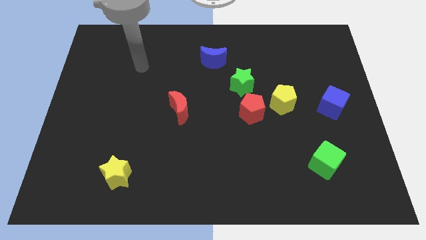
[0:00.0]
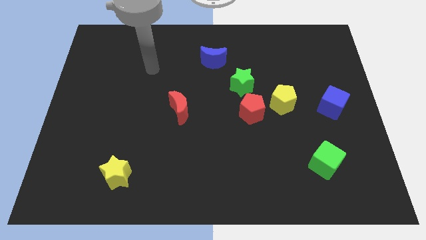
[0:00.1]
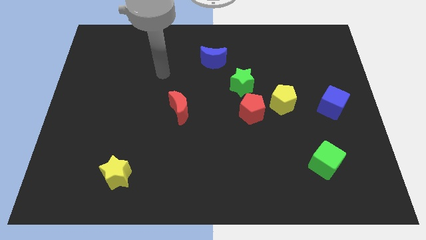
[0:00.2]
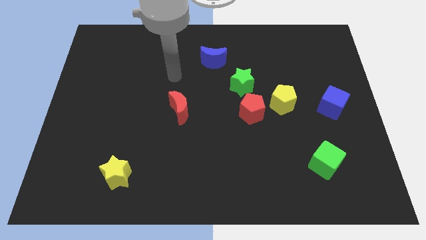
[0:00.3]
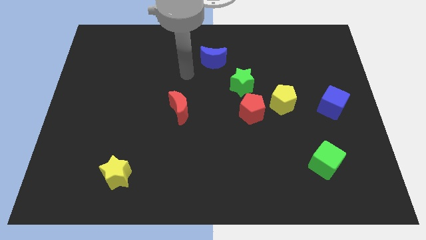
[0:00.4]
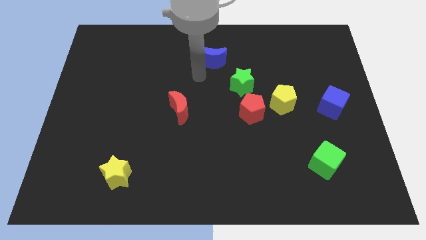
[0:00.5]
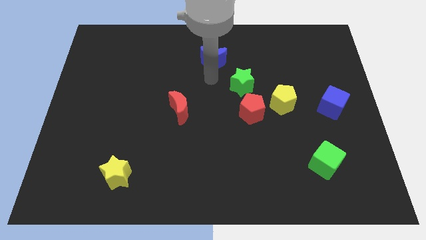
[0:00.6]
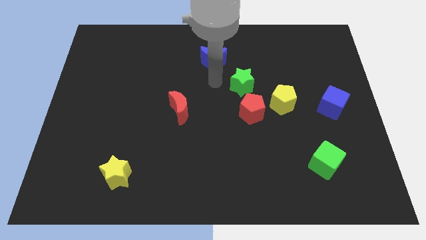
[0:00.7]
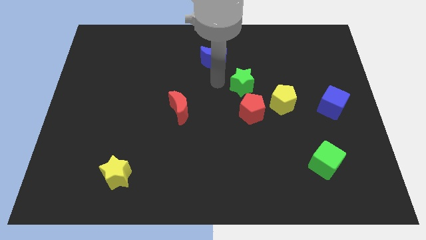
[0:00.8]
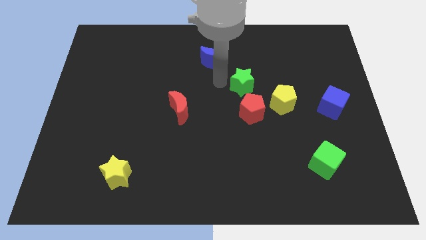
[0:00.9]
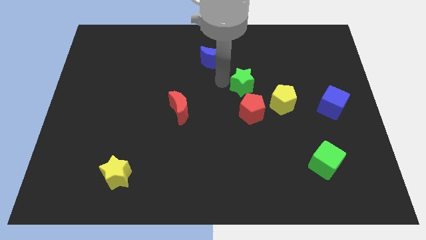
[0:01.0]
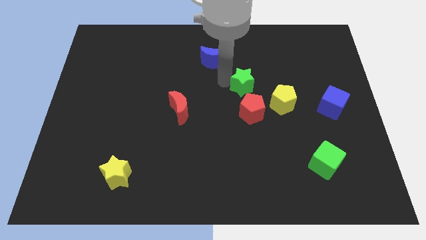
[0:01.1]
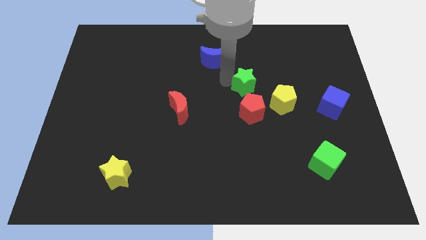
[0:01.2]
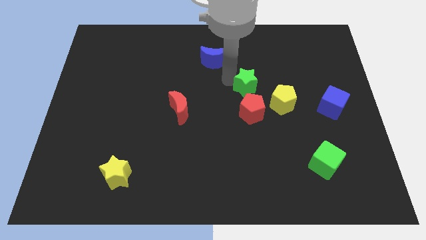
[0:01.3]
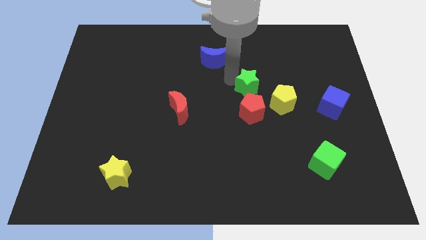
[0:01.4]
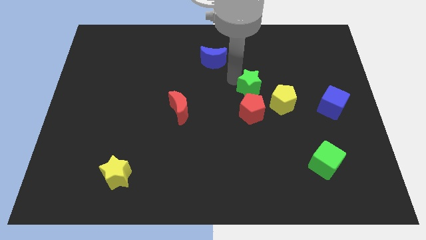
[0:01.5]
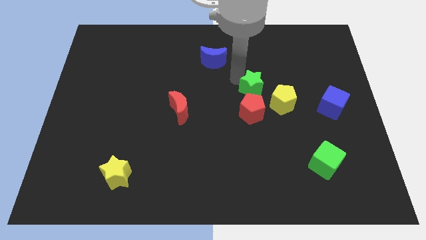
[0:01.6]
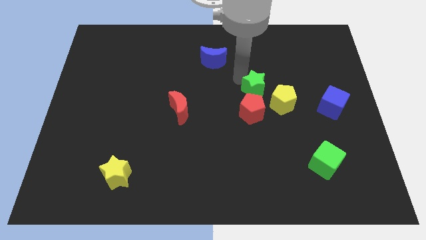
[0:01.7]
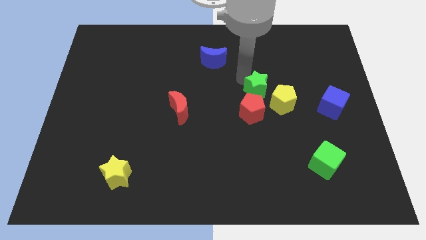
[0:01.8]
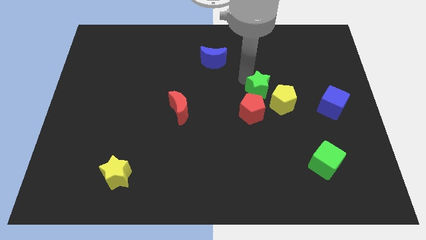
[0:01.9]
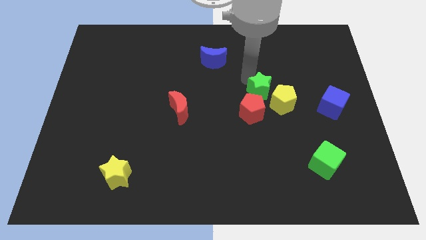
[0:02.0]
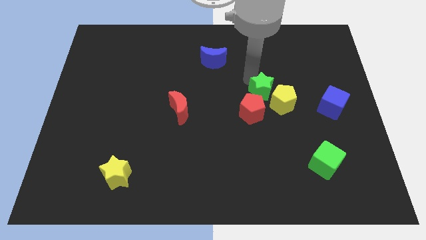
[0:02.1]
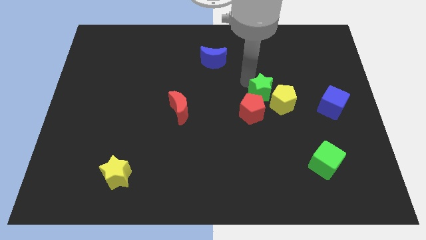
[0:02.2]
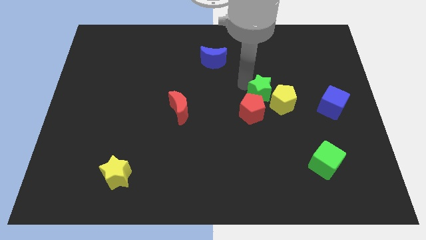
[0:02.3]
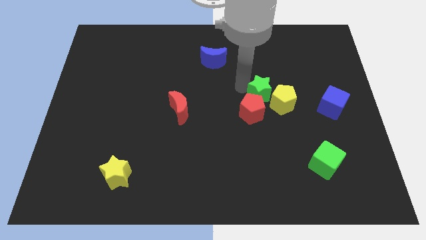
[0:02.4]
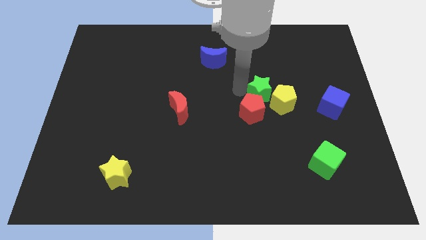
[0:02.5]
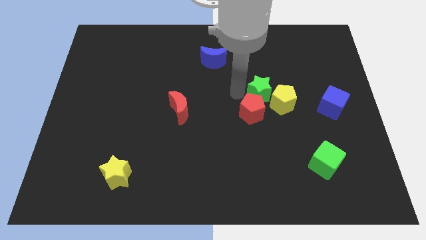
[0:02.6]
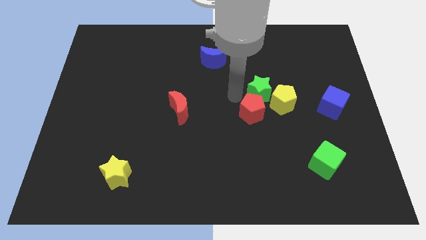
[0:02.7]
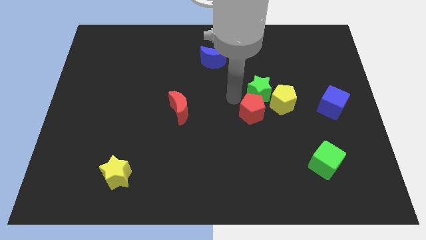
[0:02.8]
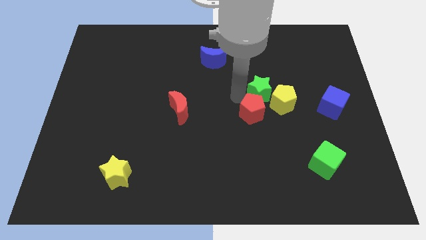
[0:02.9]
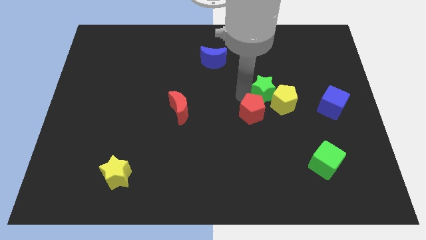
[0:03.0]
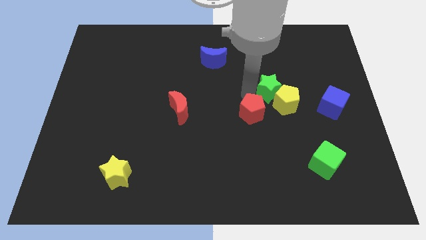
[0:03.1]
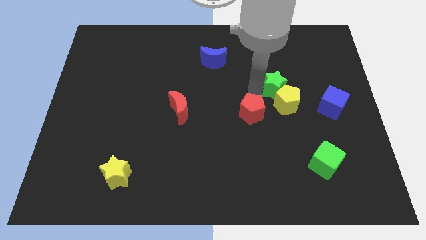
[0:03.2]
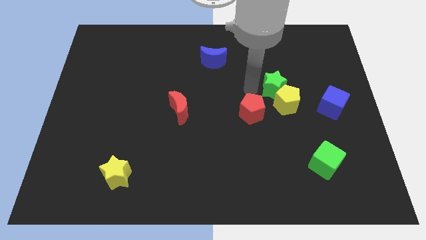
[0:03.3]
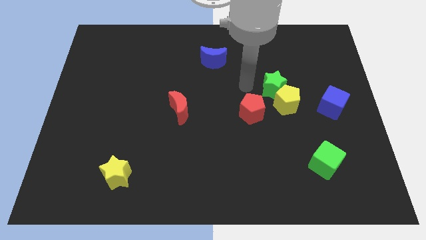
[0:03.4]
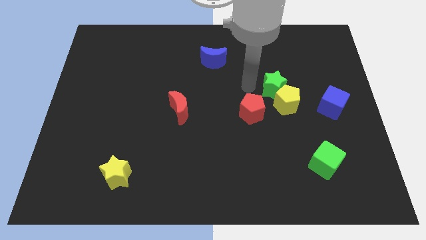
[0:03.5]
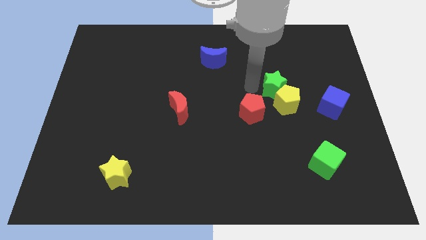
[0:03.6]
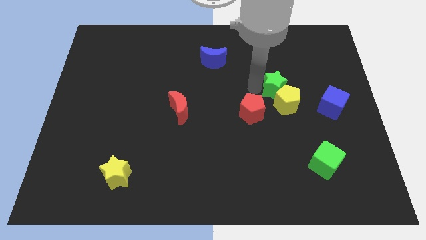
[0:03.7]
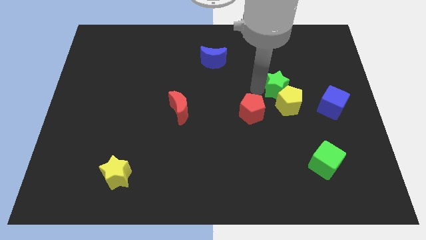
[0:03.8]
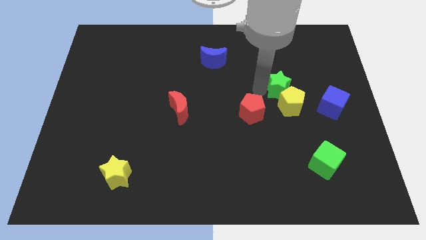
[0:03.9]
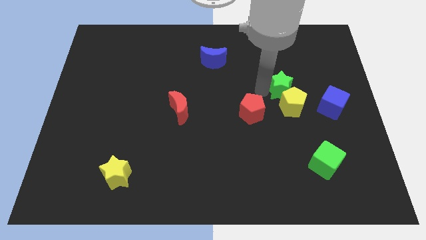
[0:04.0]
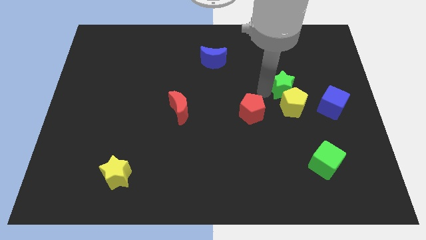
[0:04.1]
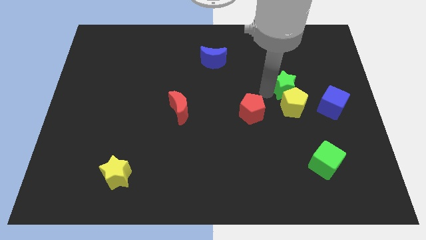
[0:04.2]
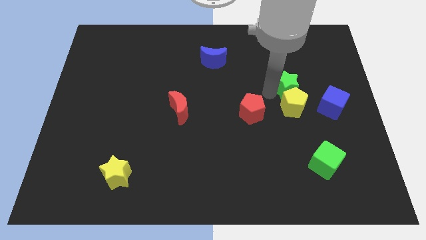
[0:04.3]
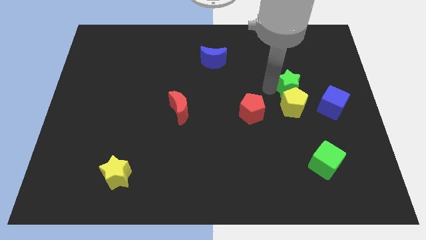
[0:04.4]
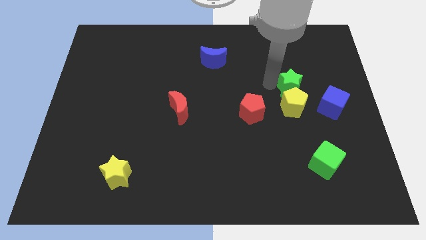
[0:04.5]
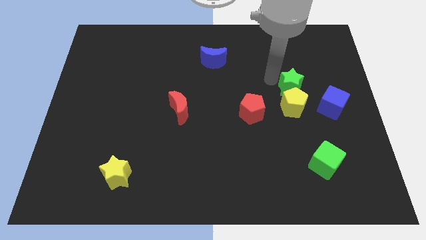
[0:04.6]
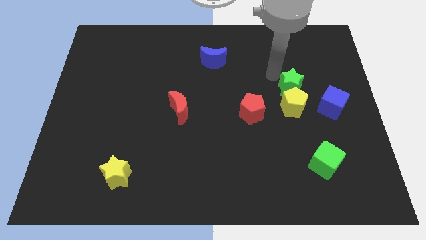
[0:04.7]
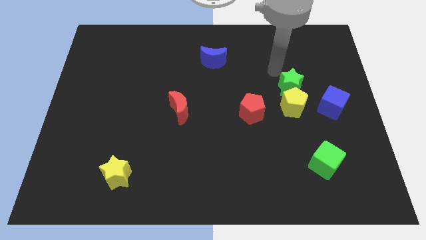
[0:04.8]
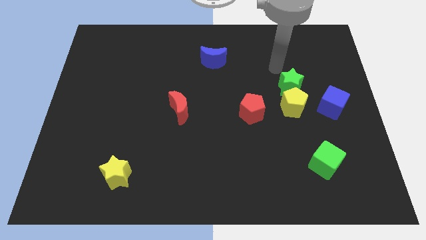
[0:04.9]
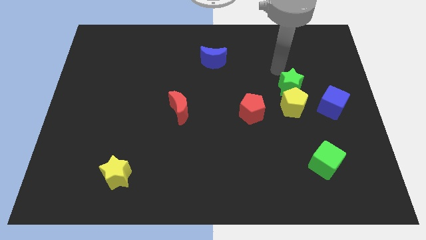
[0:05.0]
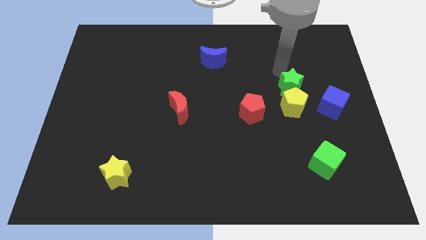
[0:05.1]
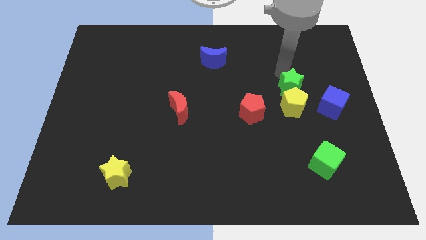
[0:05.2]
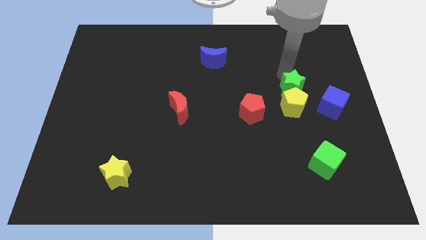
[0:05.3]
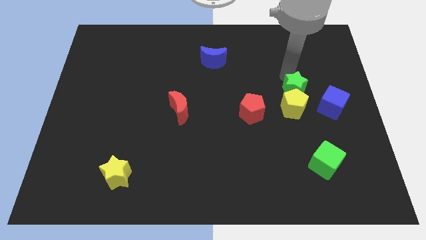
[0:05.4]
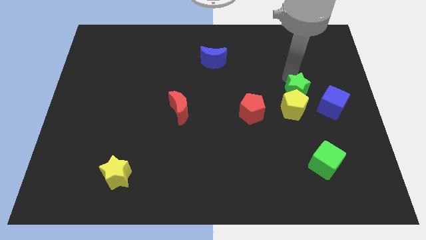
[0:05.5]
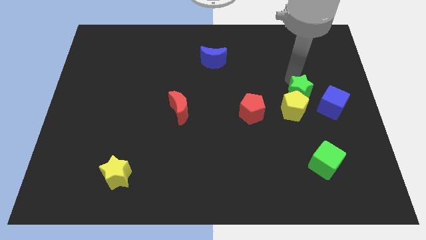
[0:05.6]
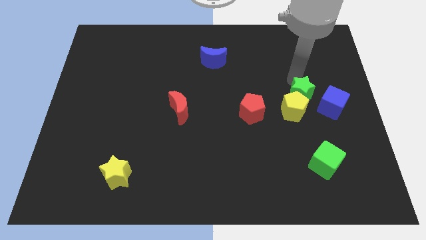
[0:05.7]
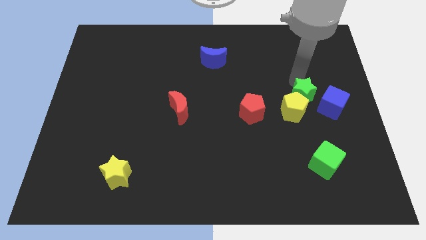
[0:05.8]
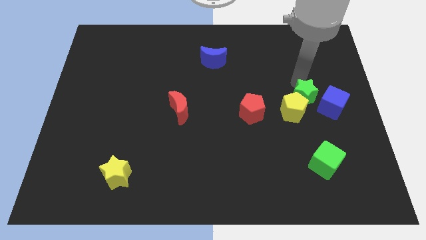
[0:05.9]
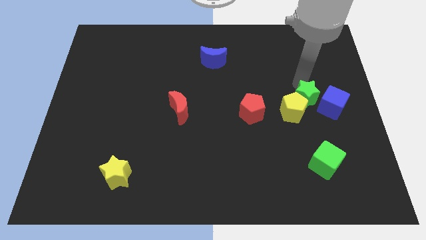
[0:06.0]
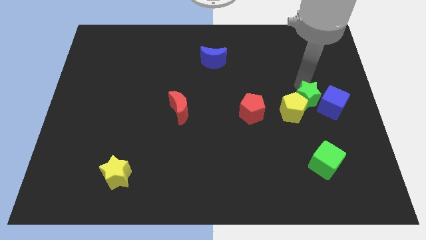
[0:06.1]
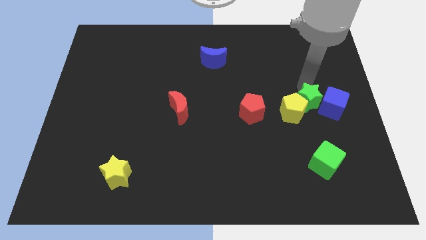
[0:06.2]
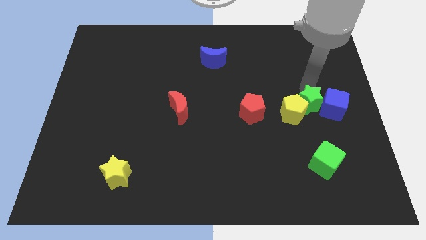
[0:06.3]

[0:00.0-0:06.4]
slide the green star above the green cube
